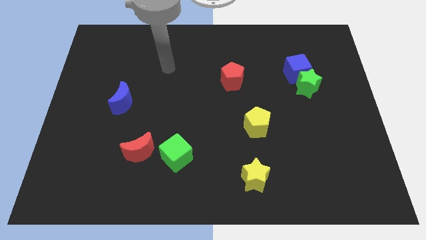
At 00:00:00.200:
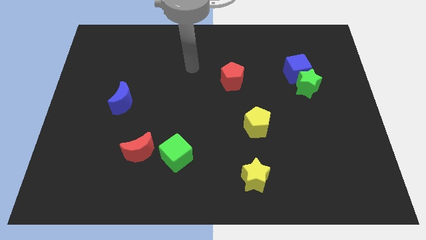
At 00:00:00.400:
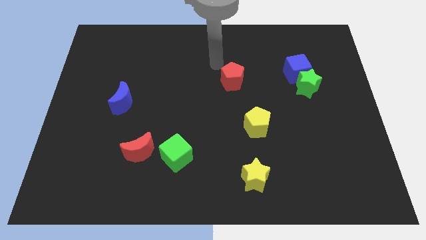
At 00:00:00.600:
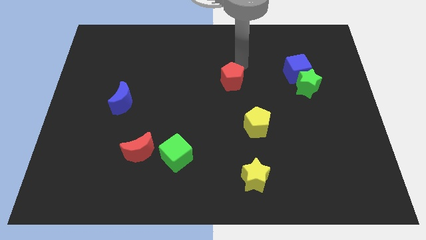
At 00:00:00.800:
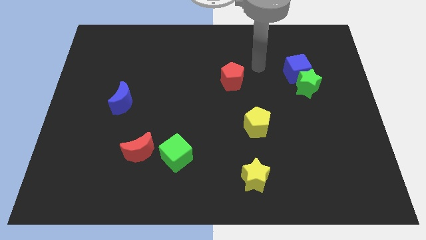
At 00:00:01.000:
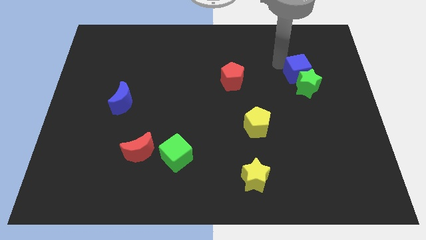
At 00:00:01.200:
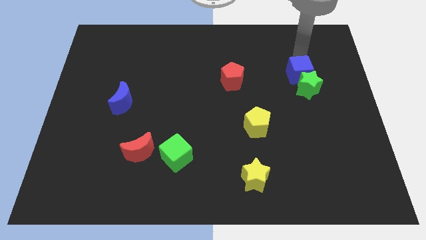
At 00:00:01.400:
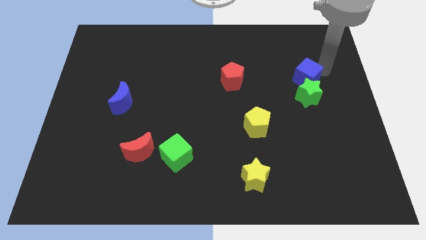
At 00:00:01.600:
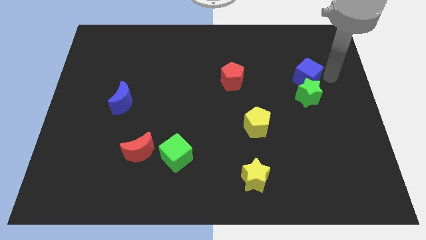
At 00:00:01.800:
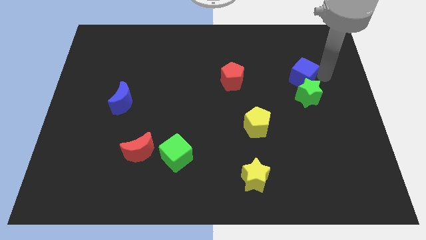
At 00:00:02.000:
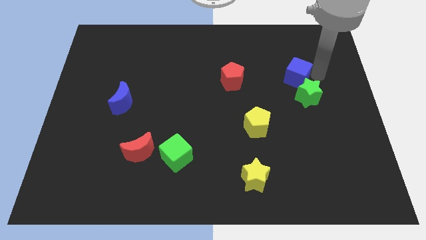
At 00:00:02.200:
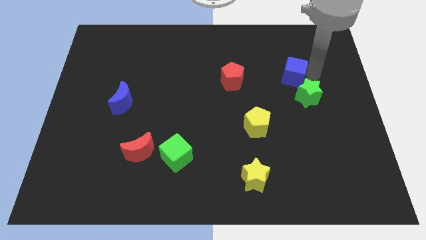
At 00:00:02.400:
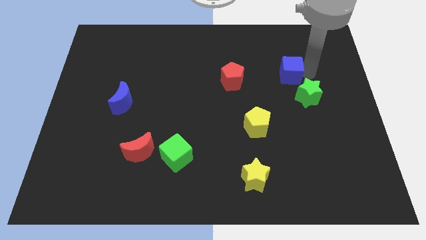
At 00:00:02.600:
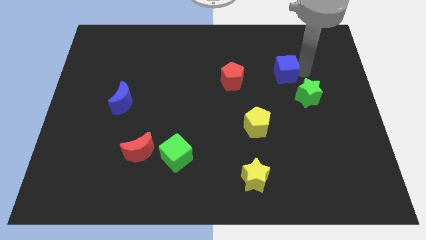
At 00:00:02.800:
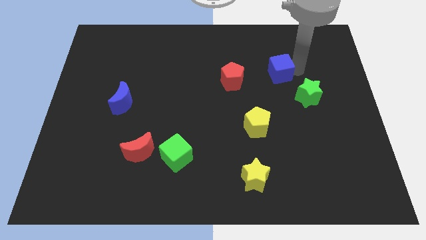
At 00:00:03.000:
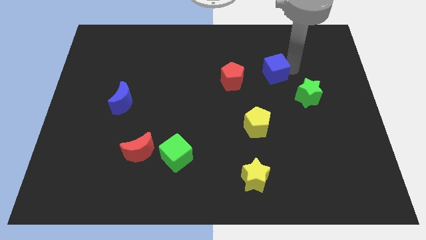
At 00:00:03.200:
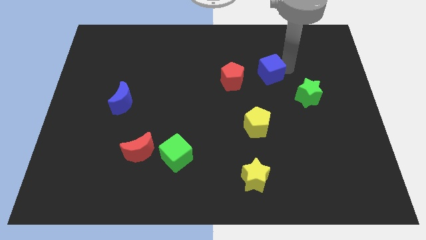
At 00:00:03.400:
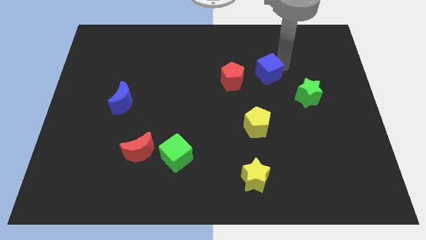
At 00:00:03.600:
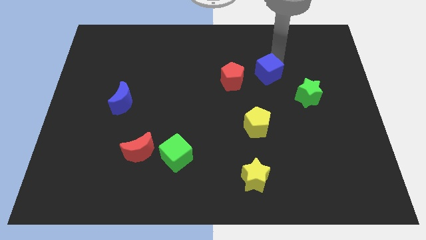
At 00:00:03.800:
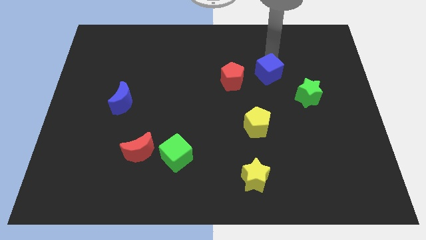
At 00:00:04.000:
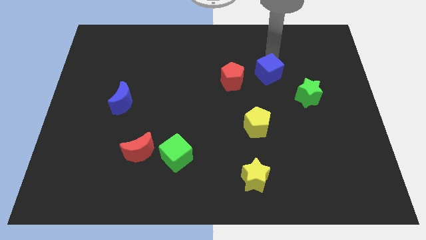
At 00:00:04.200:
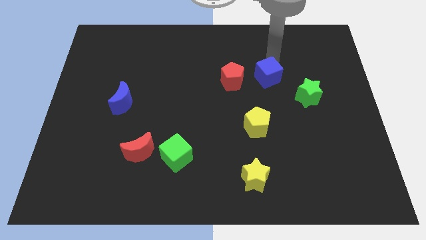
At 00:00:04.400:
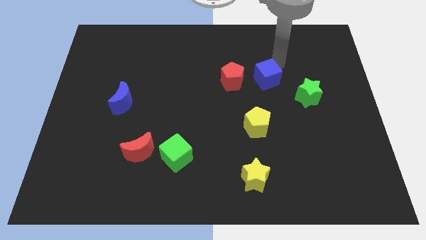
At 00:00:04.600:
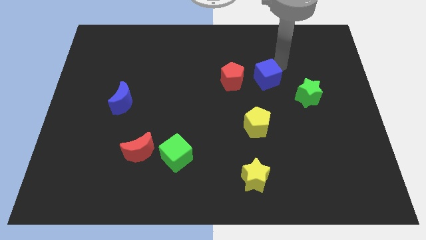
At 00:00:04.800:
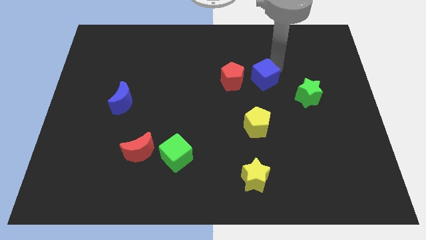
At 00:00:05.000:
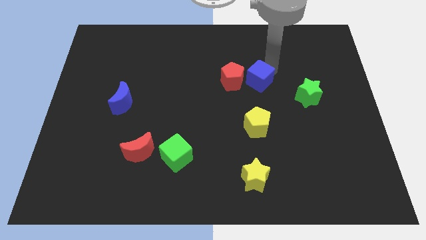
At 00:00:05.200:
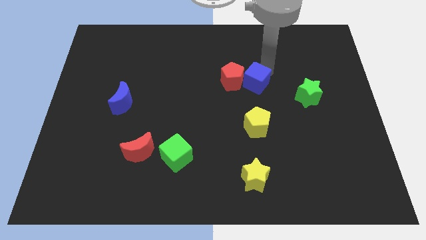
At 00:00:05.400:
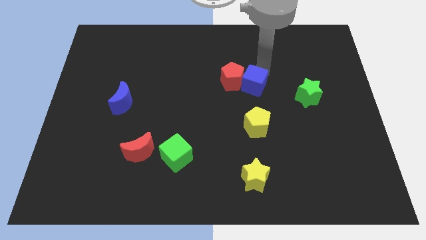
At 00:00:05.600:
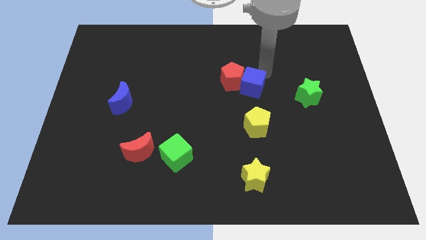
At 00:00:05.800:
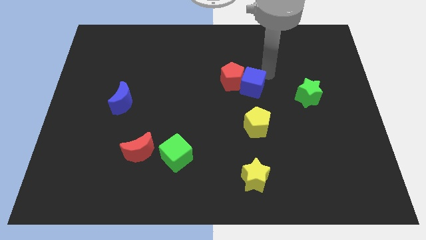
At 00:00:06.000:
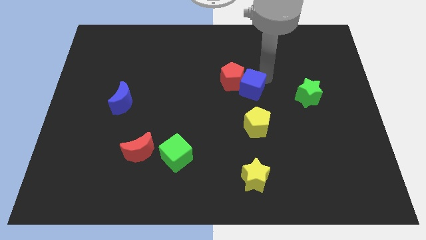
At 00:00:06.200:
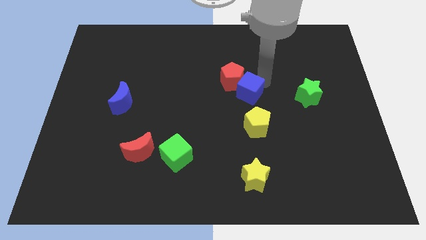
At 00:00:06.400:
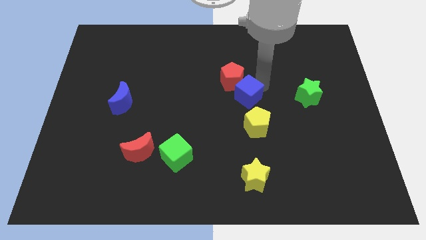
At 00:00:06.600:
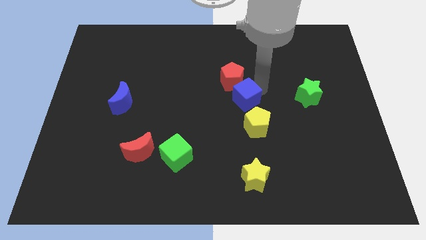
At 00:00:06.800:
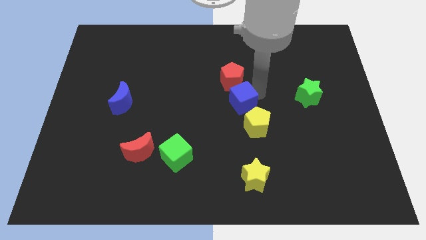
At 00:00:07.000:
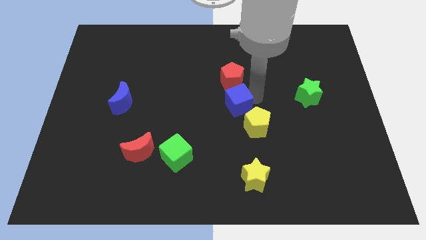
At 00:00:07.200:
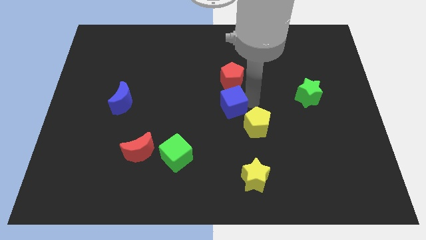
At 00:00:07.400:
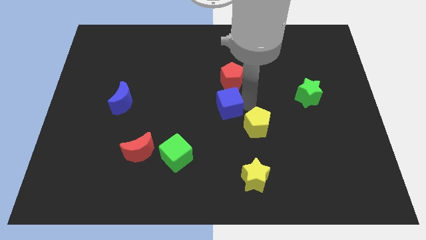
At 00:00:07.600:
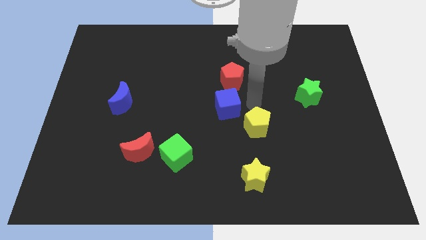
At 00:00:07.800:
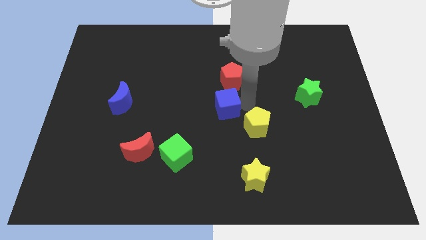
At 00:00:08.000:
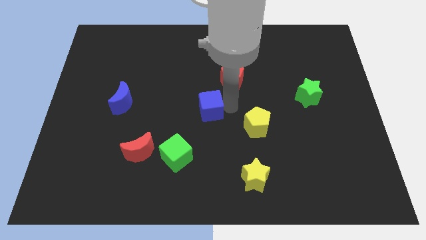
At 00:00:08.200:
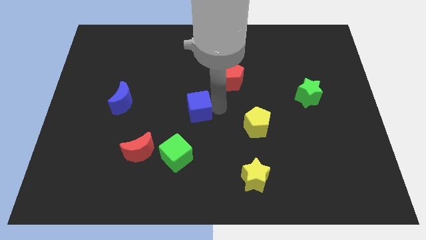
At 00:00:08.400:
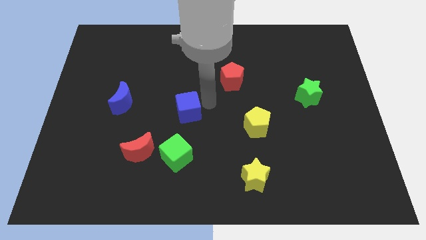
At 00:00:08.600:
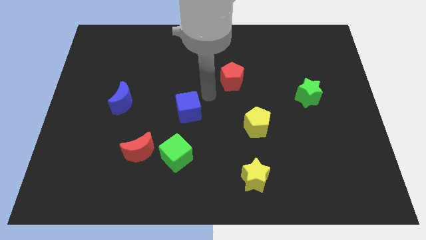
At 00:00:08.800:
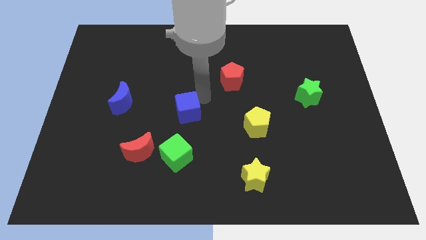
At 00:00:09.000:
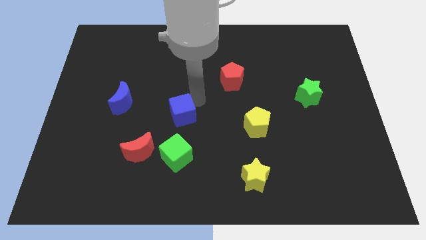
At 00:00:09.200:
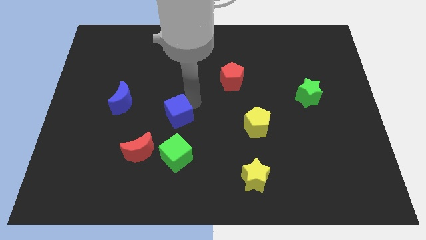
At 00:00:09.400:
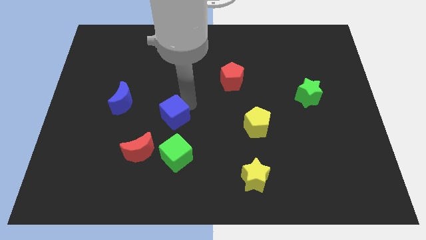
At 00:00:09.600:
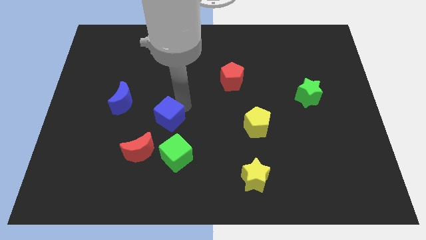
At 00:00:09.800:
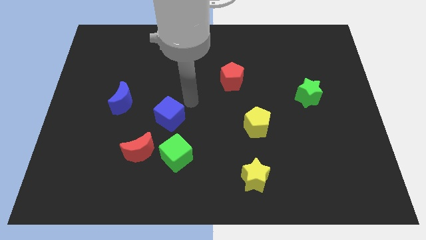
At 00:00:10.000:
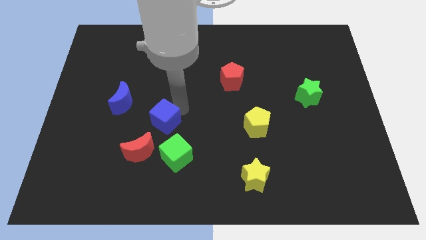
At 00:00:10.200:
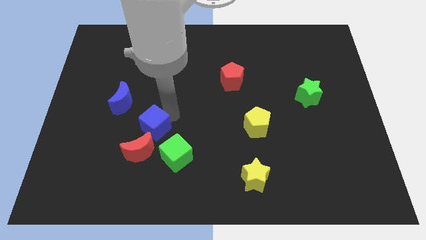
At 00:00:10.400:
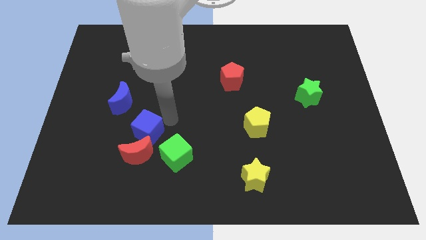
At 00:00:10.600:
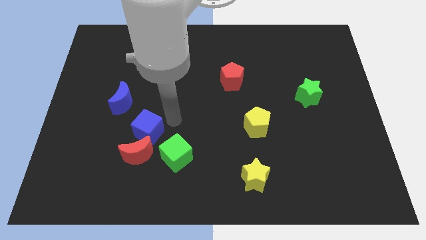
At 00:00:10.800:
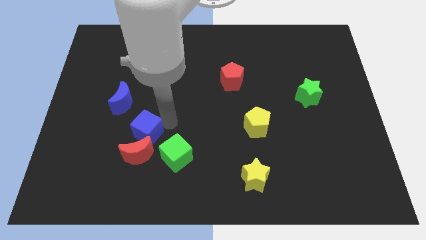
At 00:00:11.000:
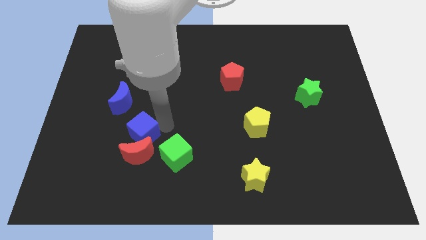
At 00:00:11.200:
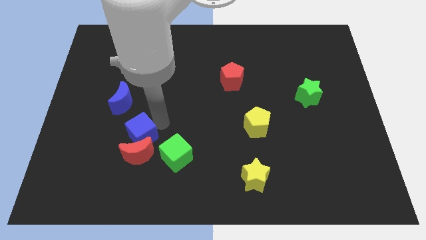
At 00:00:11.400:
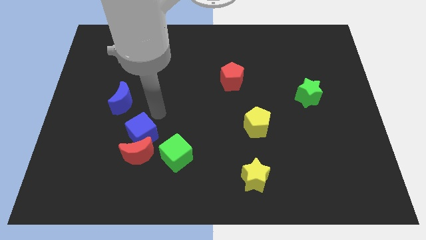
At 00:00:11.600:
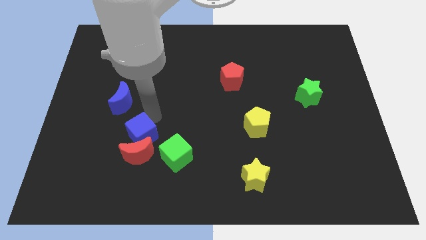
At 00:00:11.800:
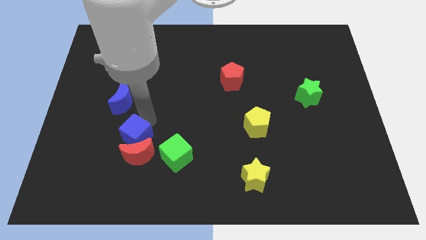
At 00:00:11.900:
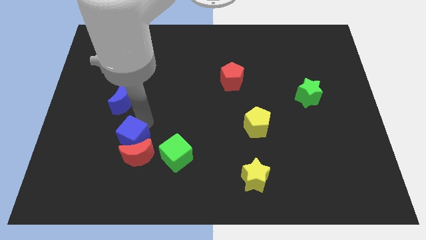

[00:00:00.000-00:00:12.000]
slide the blue cube just left of the green cube

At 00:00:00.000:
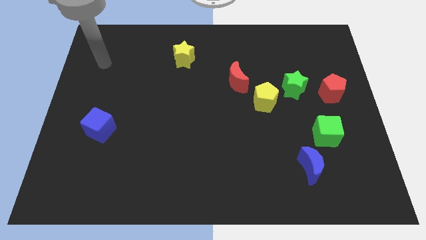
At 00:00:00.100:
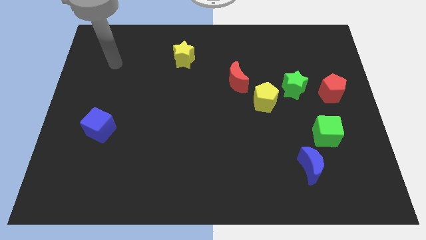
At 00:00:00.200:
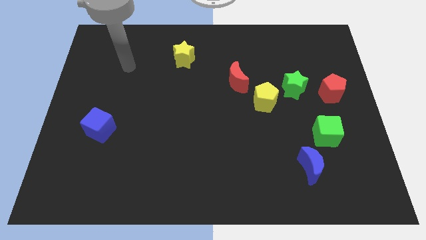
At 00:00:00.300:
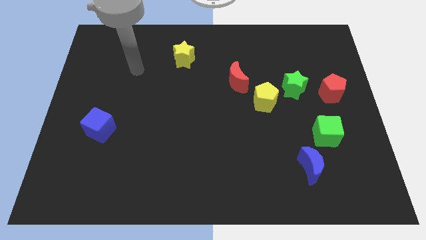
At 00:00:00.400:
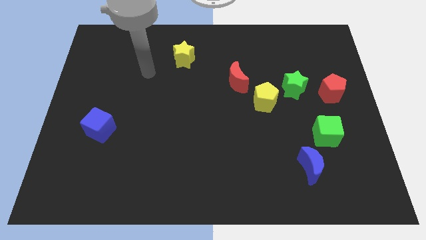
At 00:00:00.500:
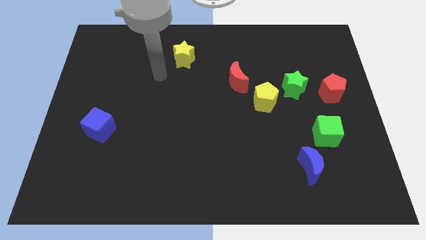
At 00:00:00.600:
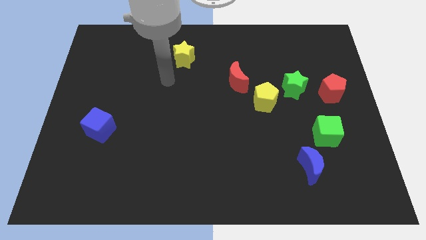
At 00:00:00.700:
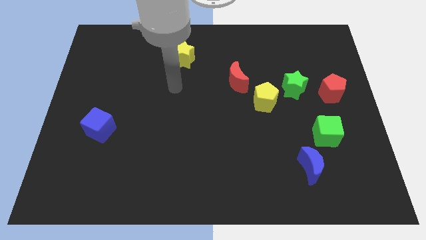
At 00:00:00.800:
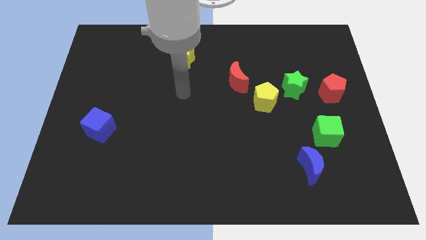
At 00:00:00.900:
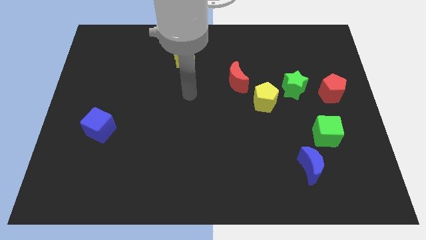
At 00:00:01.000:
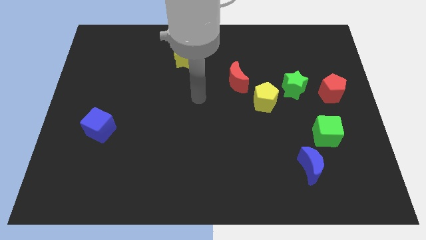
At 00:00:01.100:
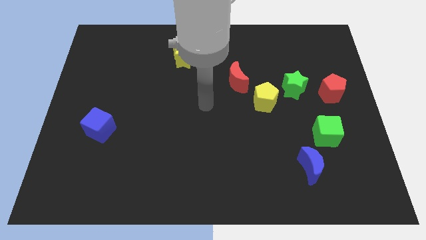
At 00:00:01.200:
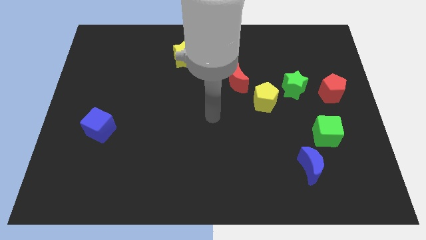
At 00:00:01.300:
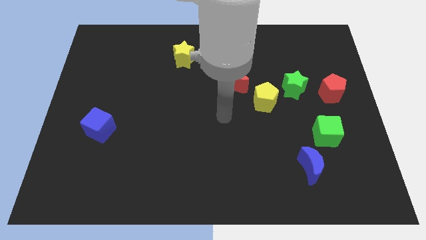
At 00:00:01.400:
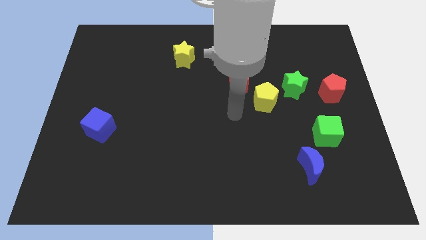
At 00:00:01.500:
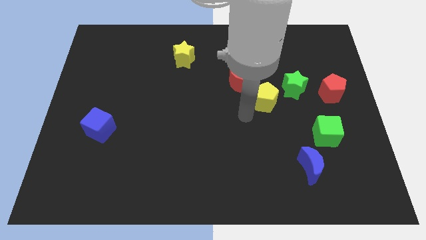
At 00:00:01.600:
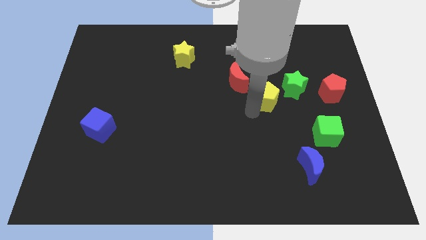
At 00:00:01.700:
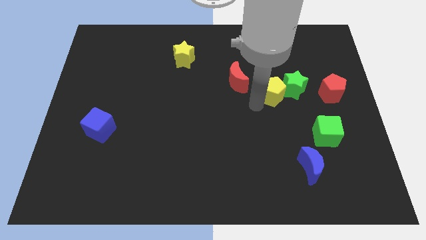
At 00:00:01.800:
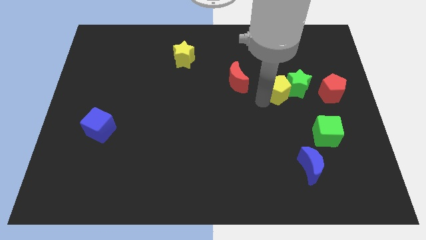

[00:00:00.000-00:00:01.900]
slide the green star diagonally up and to the left of the red pentagon
